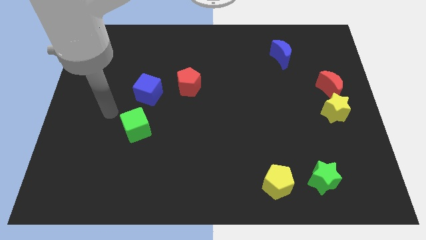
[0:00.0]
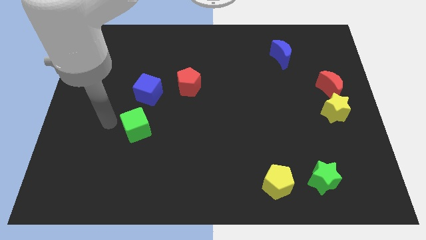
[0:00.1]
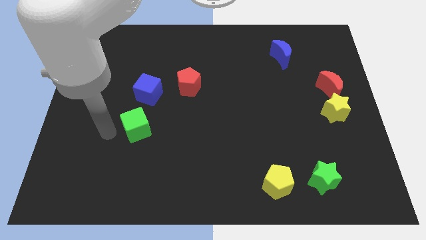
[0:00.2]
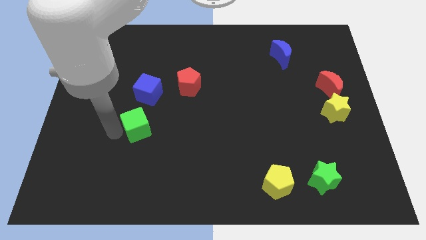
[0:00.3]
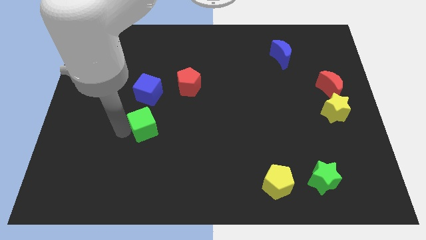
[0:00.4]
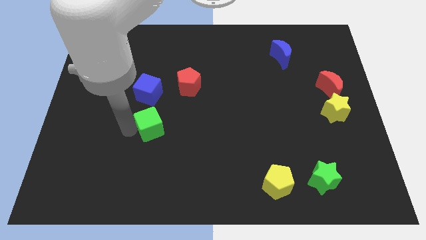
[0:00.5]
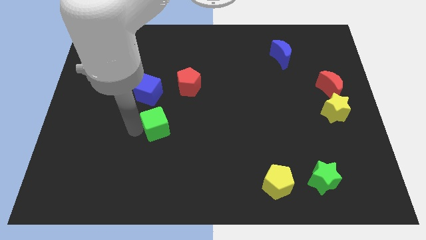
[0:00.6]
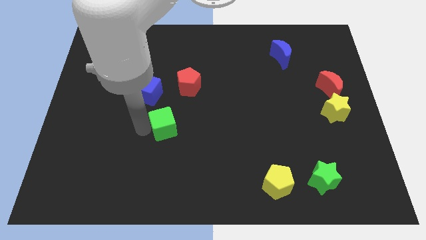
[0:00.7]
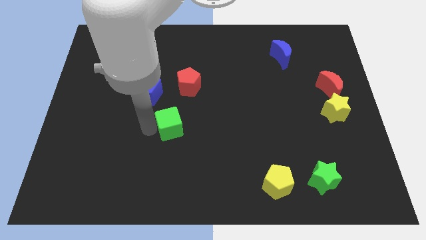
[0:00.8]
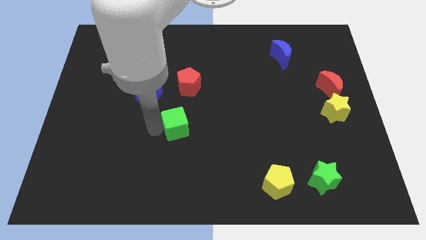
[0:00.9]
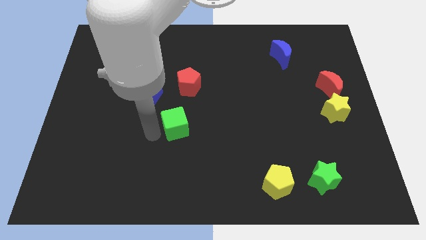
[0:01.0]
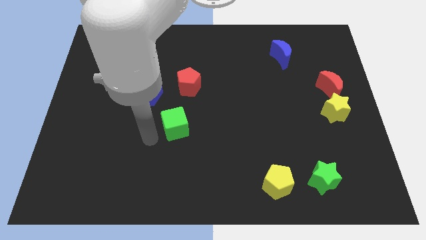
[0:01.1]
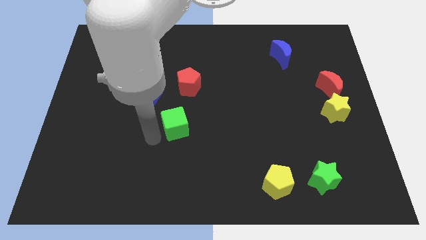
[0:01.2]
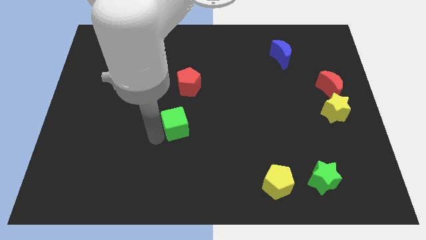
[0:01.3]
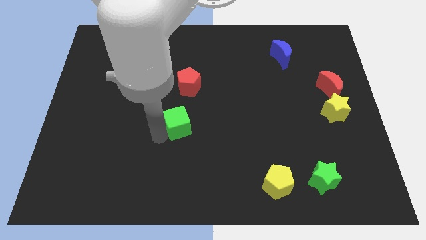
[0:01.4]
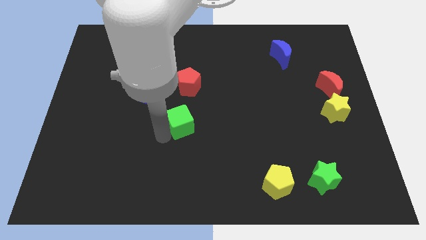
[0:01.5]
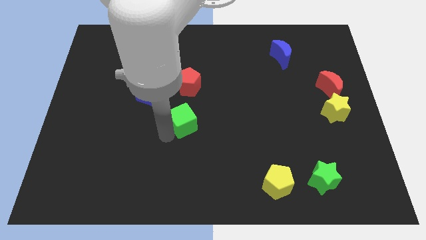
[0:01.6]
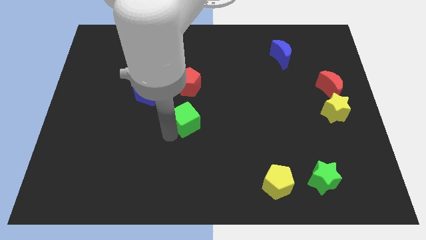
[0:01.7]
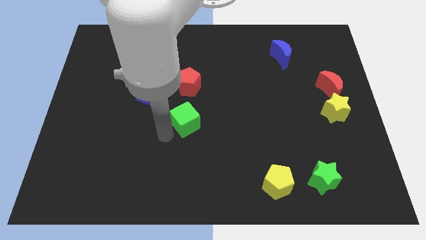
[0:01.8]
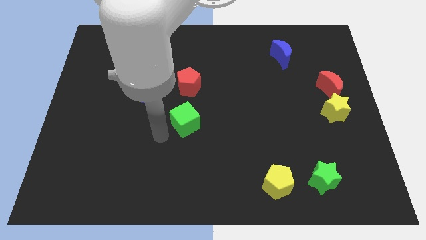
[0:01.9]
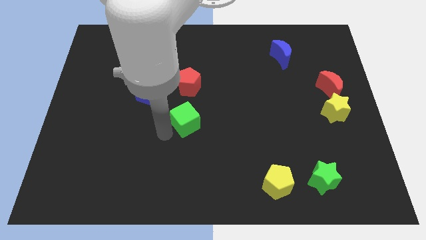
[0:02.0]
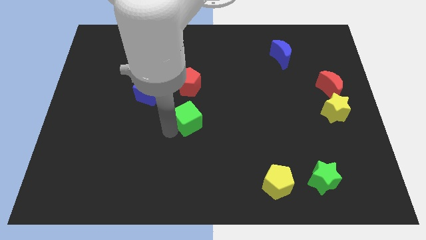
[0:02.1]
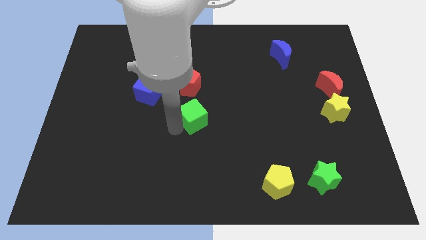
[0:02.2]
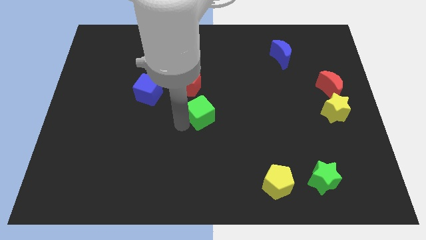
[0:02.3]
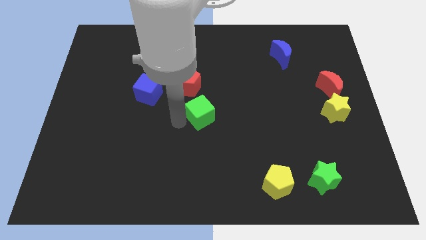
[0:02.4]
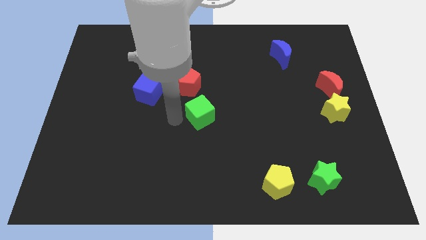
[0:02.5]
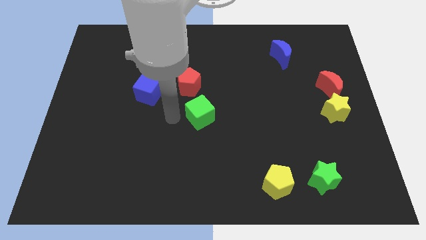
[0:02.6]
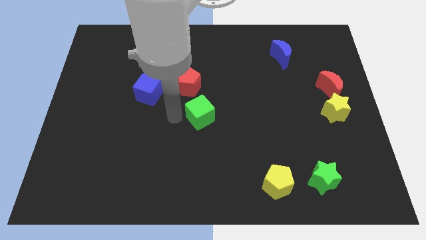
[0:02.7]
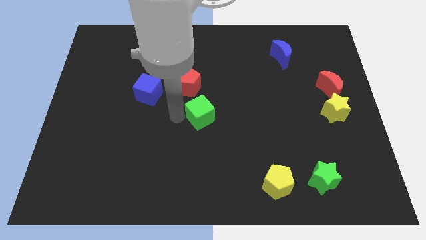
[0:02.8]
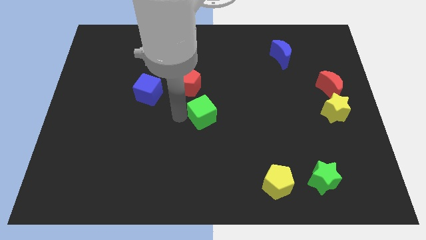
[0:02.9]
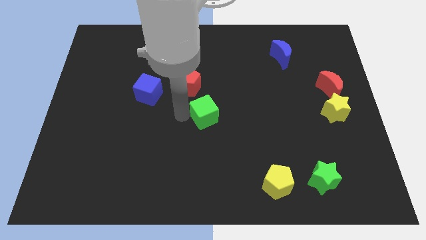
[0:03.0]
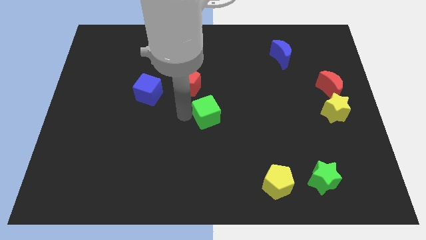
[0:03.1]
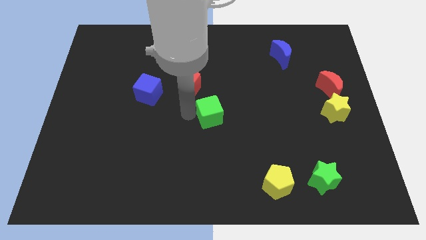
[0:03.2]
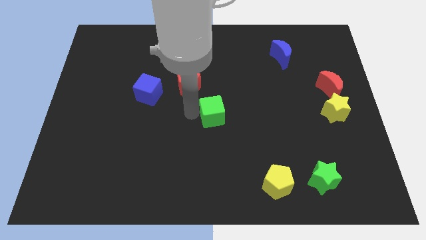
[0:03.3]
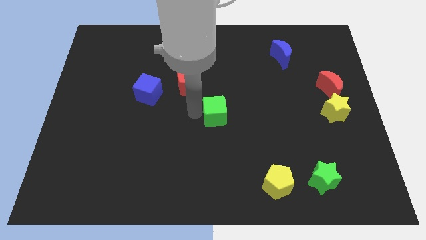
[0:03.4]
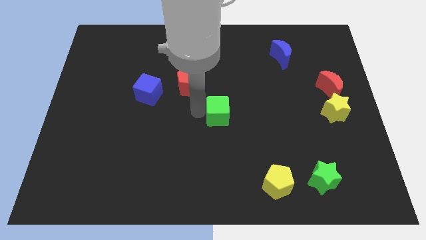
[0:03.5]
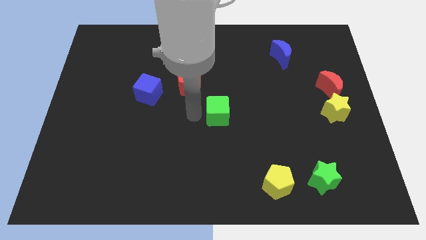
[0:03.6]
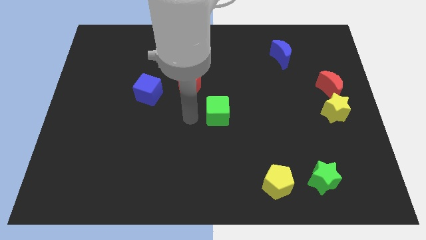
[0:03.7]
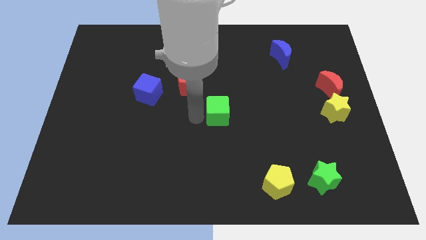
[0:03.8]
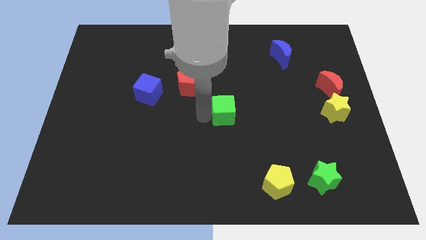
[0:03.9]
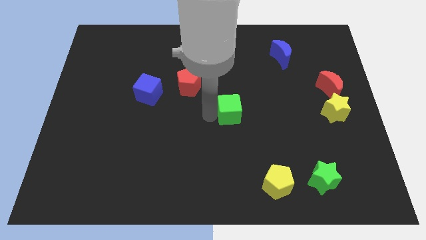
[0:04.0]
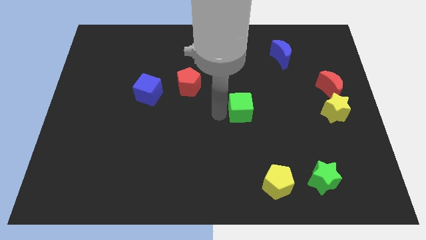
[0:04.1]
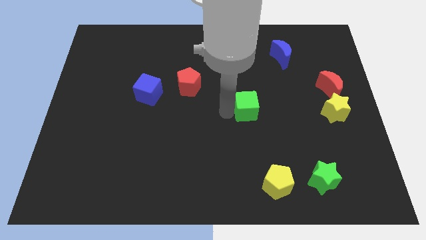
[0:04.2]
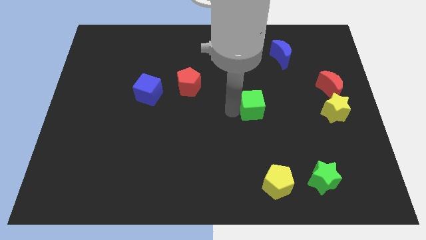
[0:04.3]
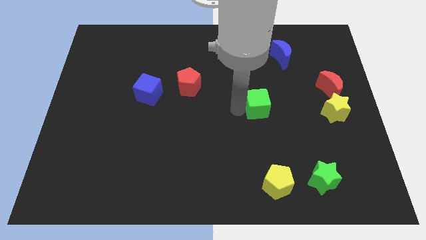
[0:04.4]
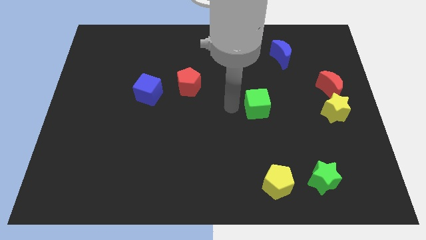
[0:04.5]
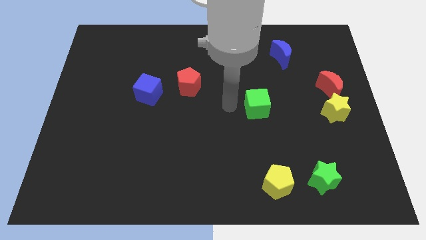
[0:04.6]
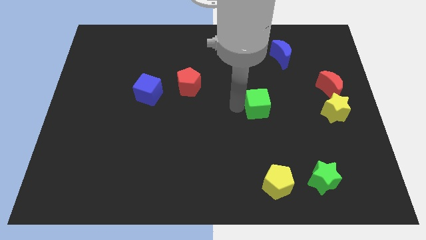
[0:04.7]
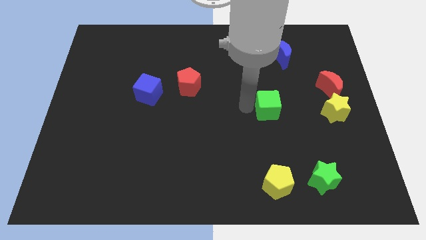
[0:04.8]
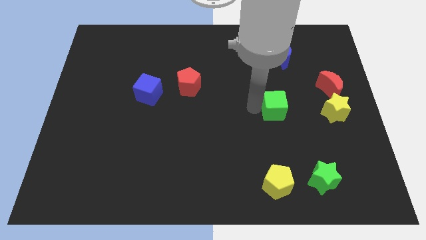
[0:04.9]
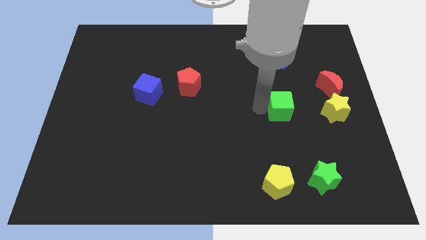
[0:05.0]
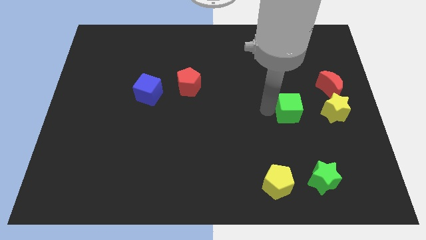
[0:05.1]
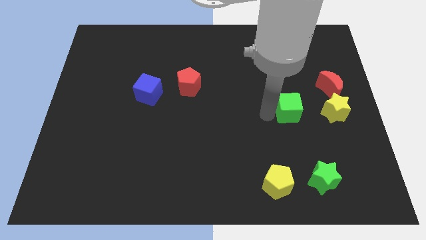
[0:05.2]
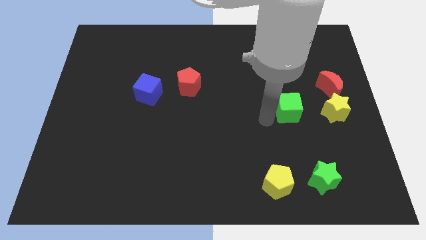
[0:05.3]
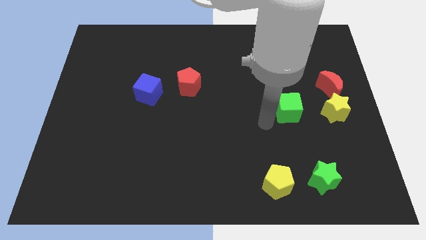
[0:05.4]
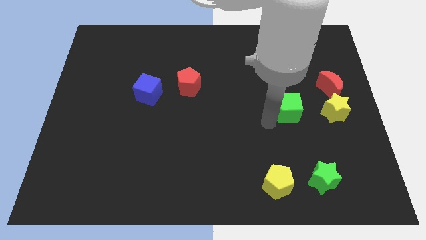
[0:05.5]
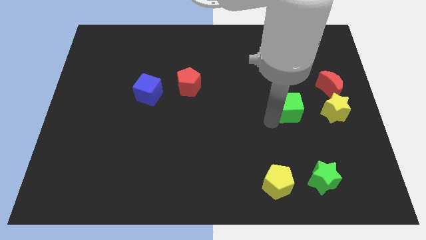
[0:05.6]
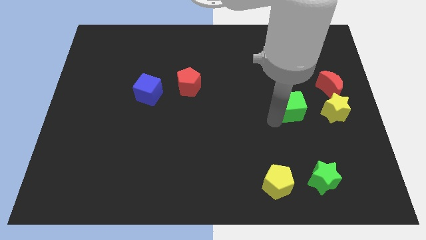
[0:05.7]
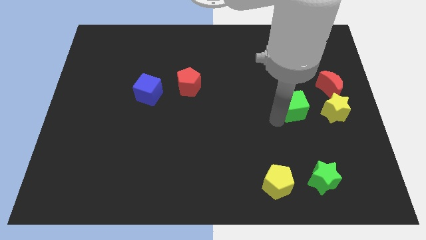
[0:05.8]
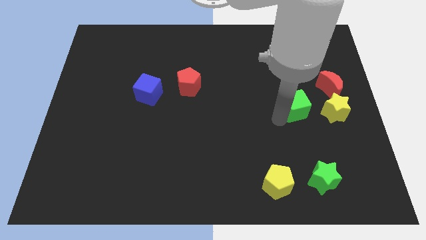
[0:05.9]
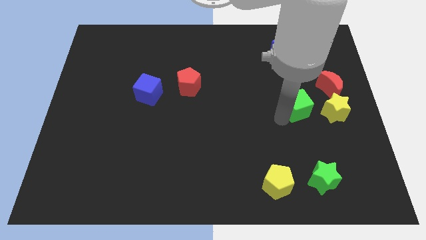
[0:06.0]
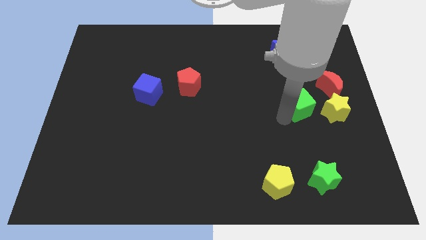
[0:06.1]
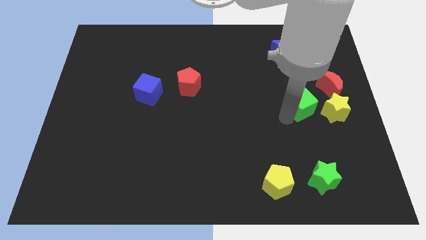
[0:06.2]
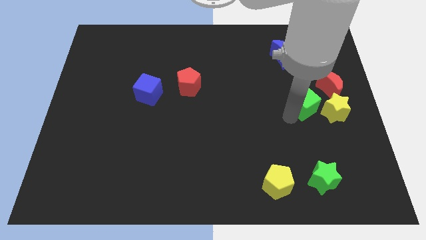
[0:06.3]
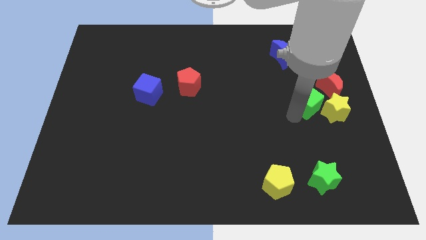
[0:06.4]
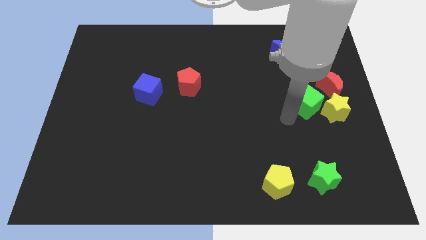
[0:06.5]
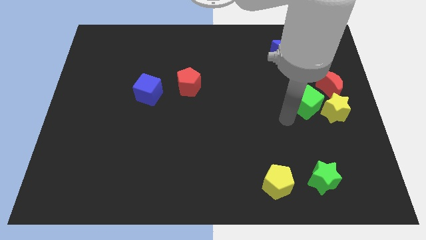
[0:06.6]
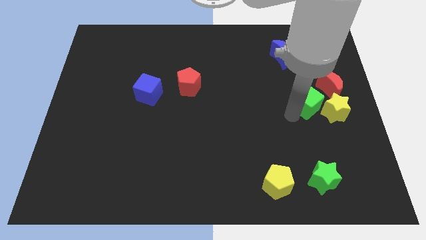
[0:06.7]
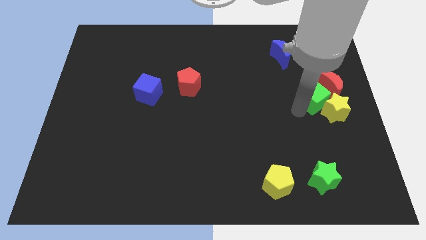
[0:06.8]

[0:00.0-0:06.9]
put the green cube close to the red moon

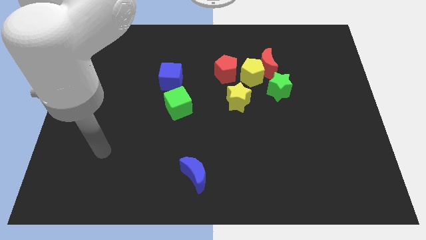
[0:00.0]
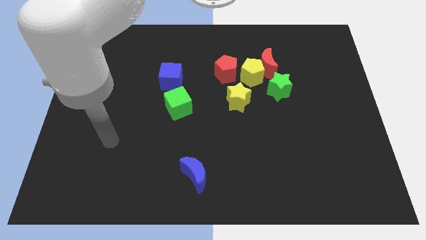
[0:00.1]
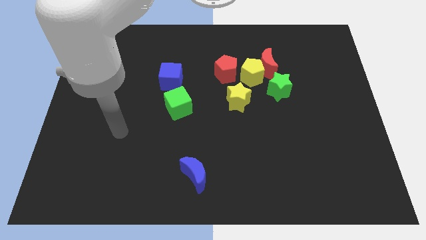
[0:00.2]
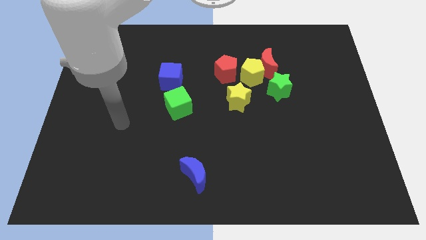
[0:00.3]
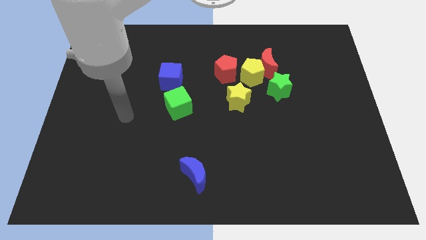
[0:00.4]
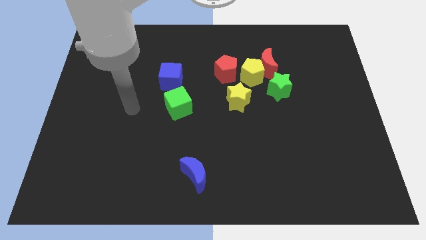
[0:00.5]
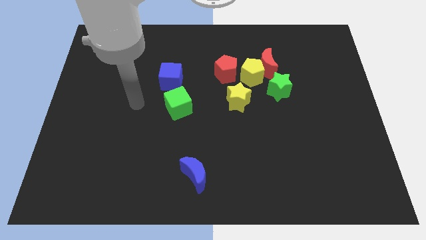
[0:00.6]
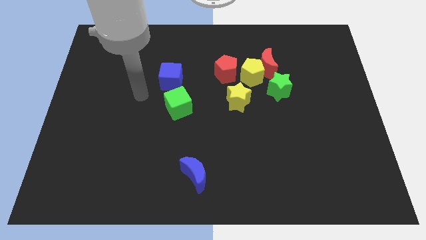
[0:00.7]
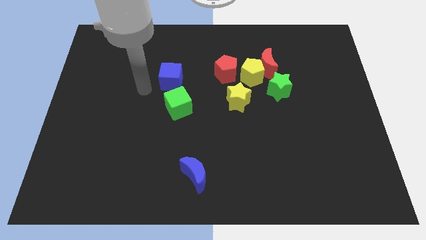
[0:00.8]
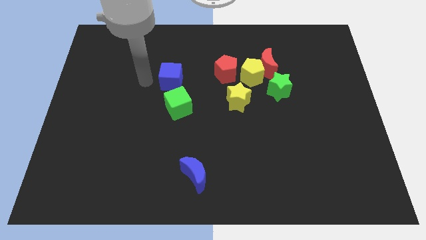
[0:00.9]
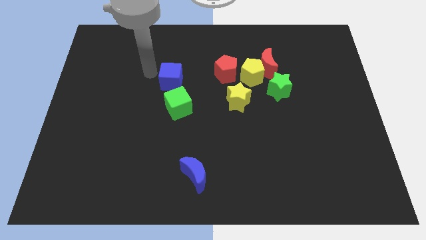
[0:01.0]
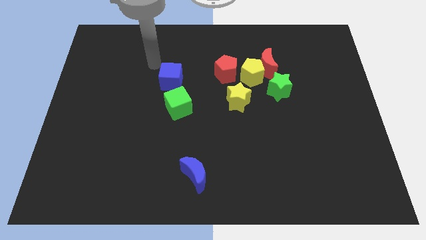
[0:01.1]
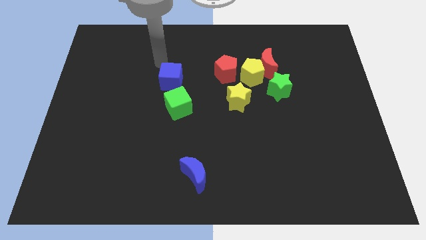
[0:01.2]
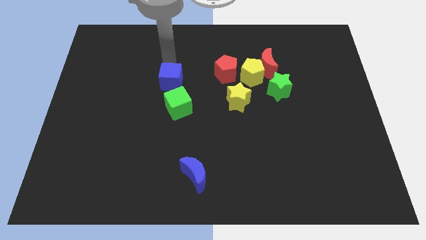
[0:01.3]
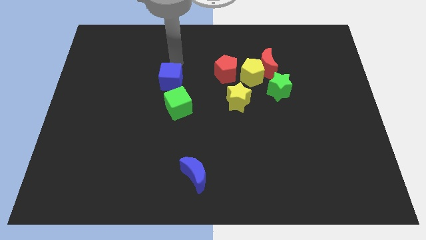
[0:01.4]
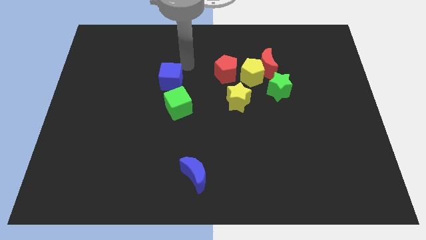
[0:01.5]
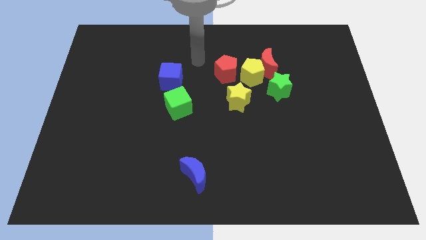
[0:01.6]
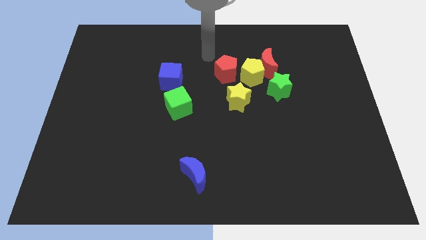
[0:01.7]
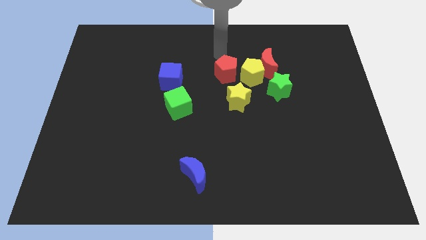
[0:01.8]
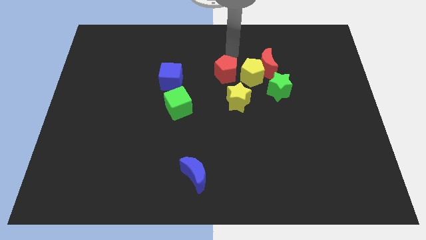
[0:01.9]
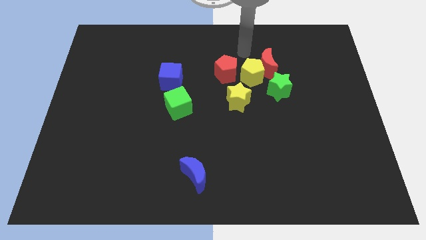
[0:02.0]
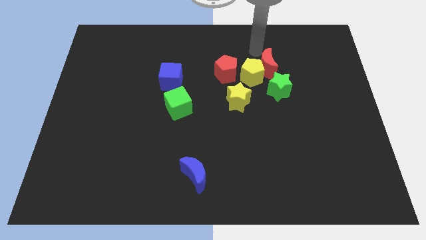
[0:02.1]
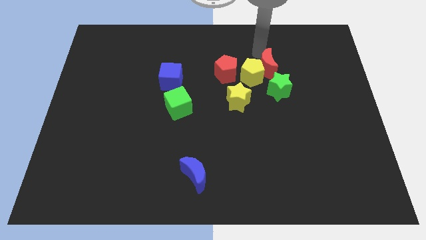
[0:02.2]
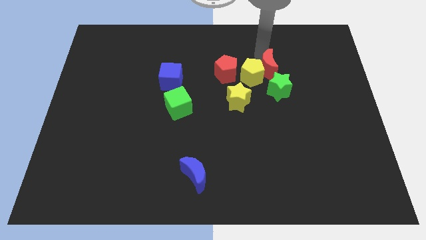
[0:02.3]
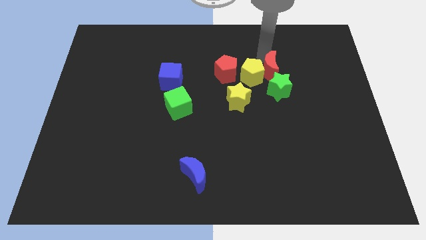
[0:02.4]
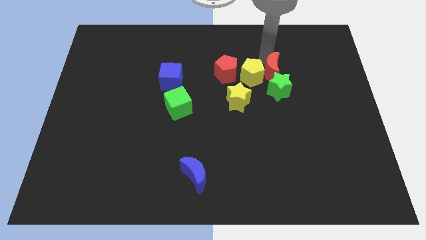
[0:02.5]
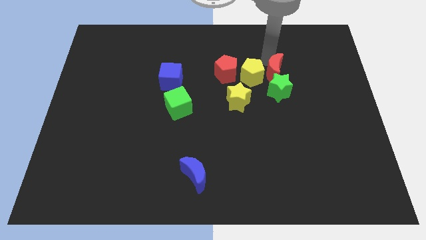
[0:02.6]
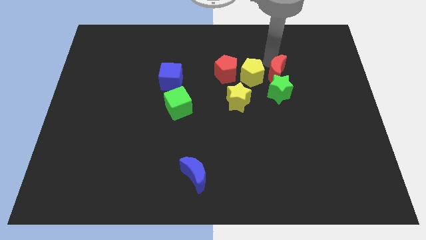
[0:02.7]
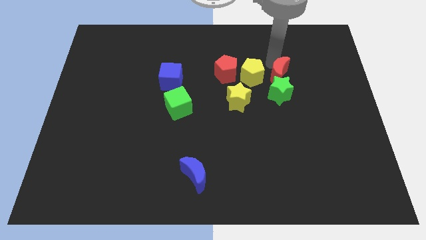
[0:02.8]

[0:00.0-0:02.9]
slide the red moon close to the green star
